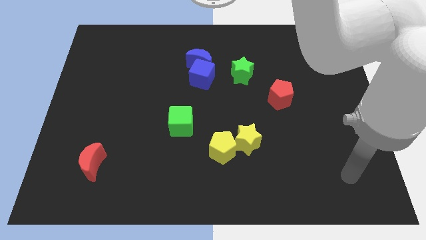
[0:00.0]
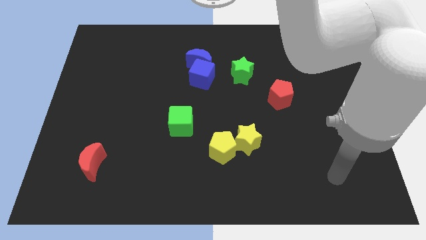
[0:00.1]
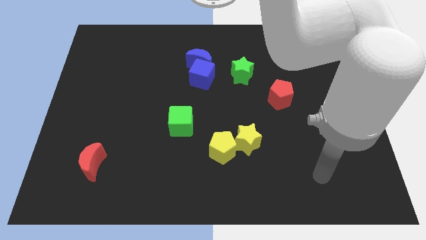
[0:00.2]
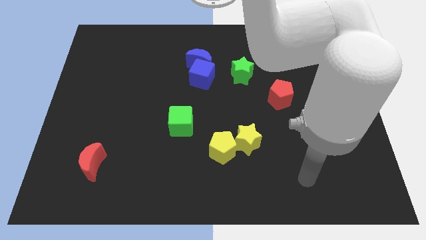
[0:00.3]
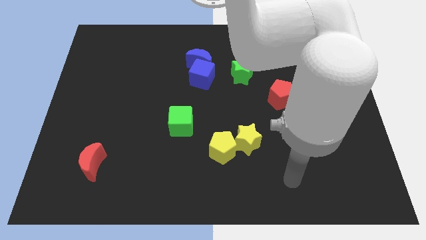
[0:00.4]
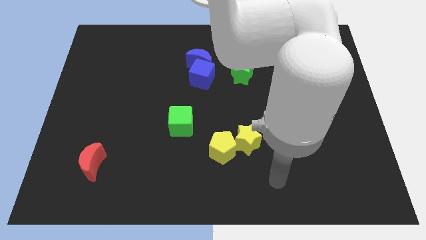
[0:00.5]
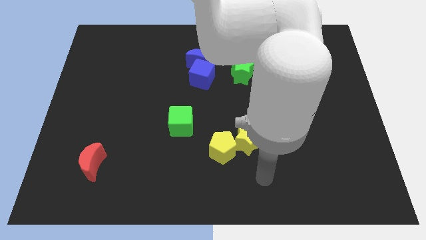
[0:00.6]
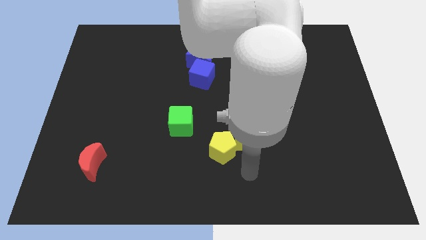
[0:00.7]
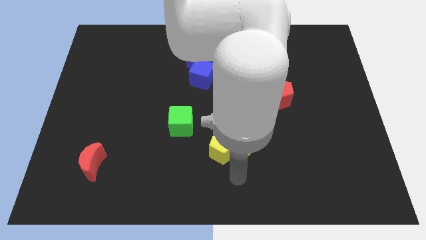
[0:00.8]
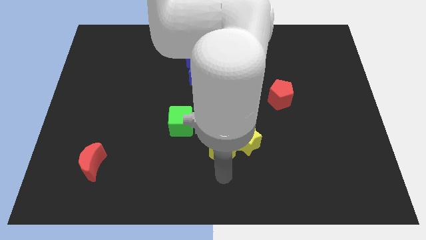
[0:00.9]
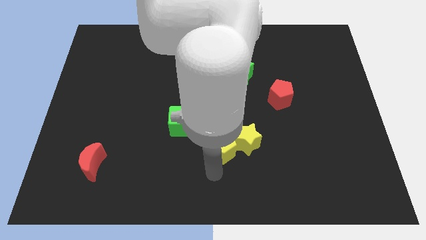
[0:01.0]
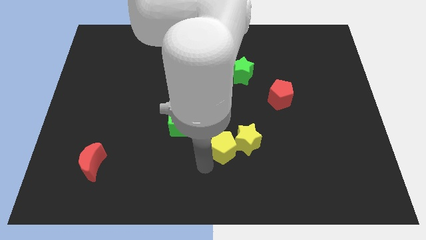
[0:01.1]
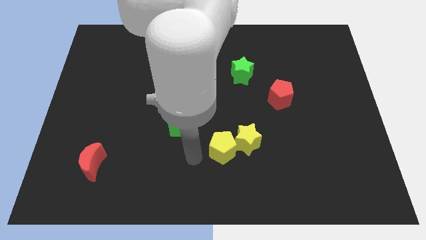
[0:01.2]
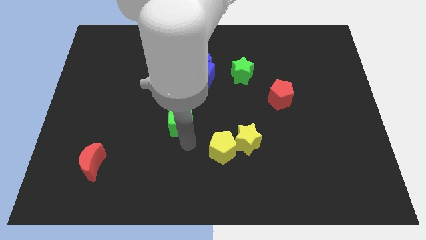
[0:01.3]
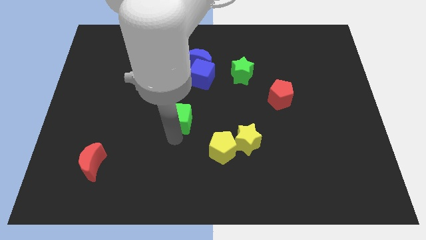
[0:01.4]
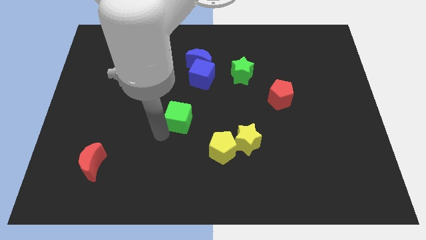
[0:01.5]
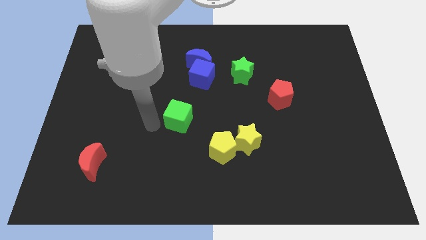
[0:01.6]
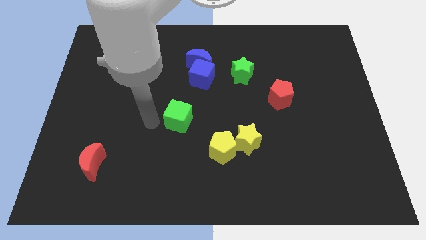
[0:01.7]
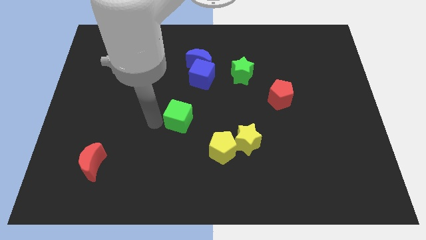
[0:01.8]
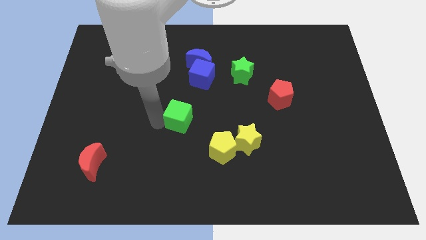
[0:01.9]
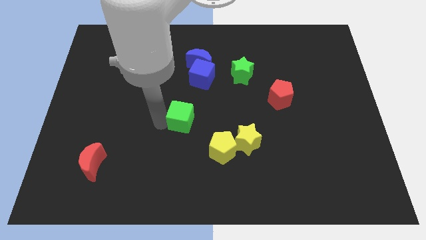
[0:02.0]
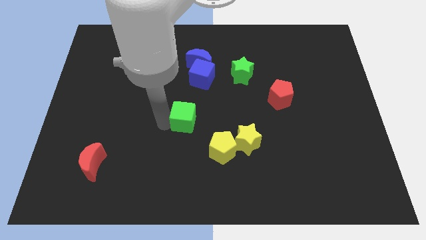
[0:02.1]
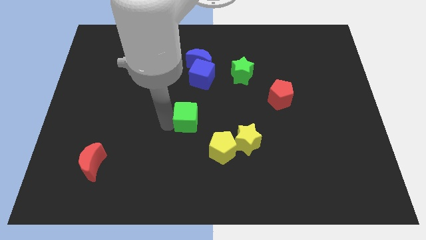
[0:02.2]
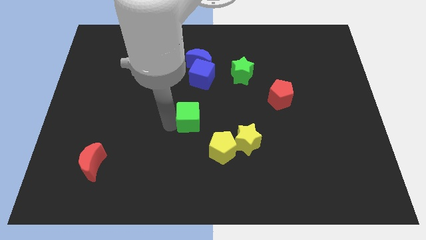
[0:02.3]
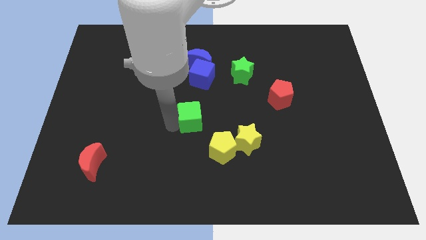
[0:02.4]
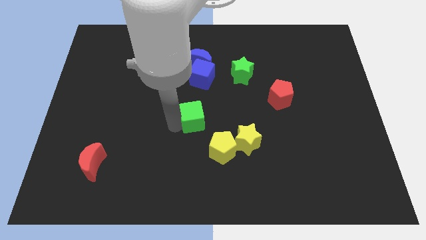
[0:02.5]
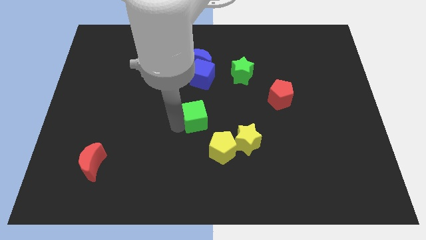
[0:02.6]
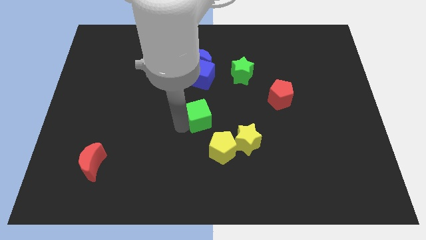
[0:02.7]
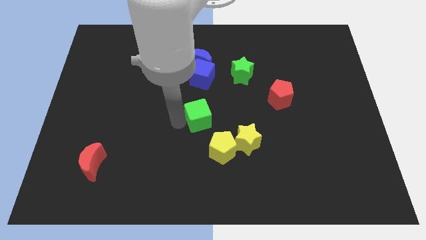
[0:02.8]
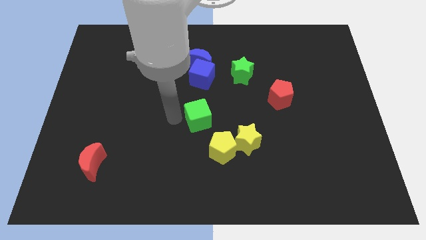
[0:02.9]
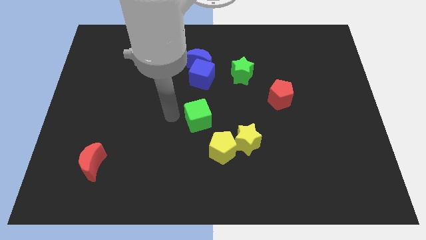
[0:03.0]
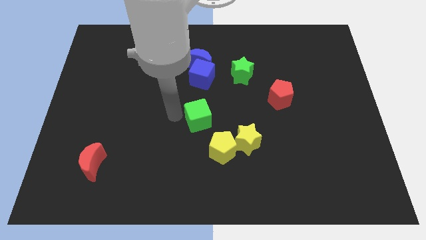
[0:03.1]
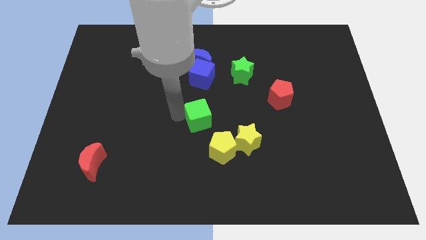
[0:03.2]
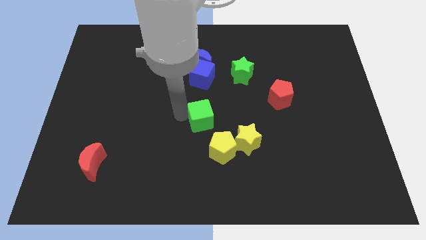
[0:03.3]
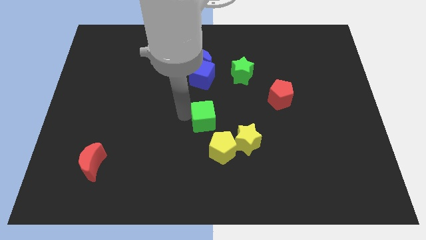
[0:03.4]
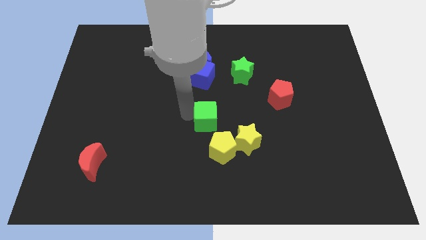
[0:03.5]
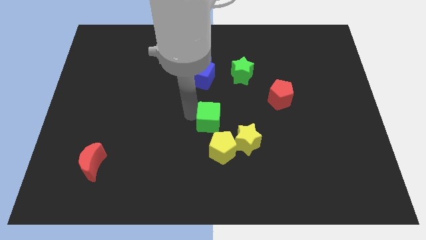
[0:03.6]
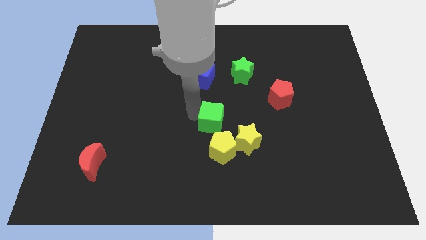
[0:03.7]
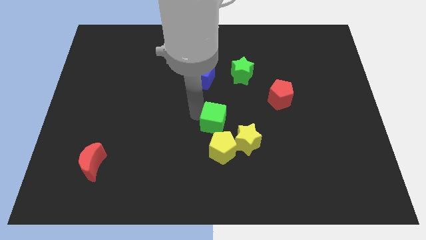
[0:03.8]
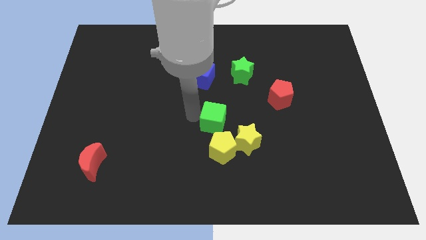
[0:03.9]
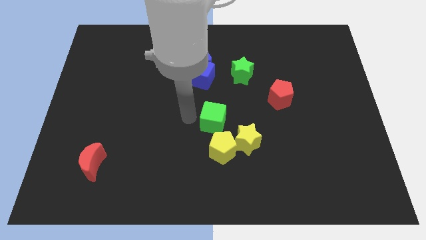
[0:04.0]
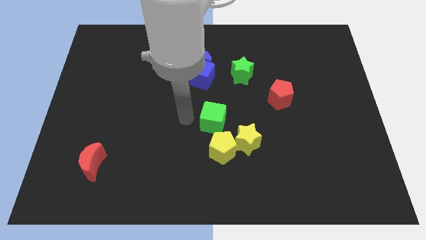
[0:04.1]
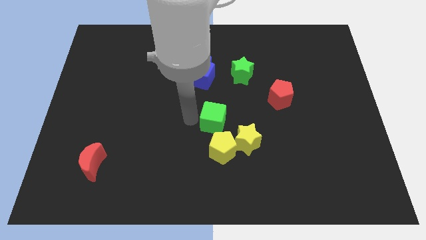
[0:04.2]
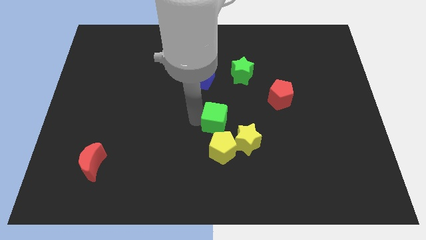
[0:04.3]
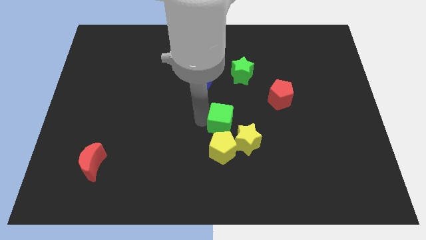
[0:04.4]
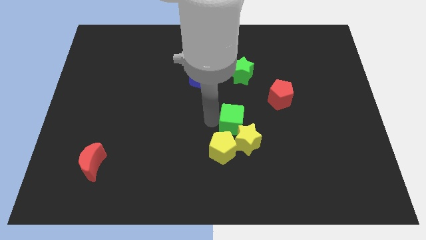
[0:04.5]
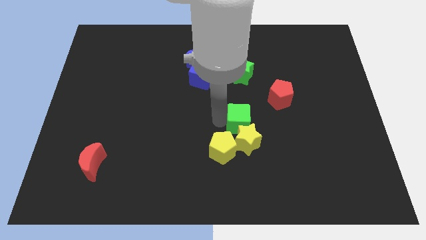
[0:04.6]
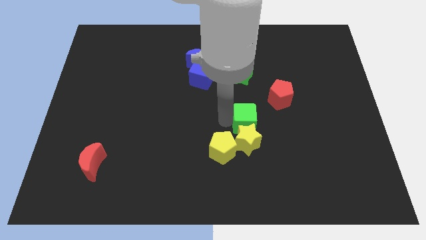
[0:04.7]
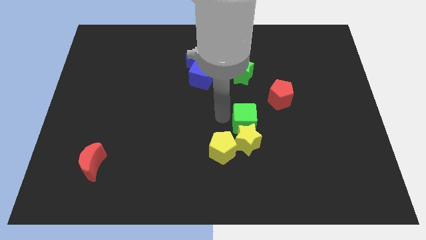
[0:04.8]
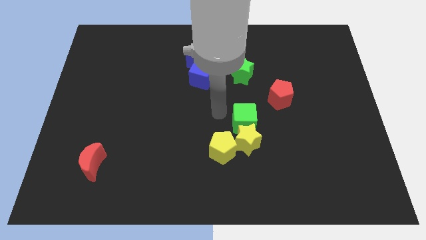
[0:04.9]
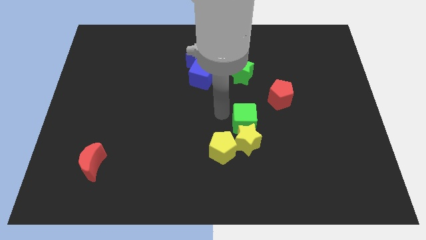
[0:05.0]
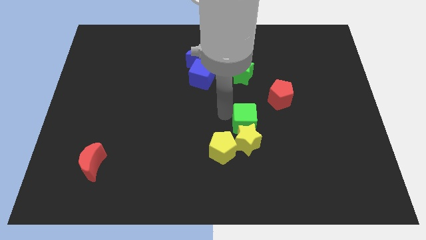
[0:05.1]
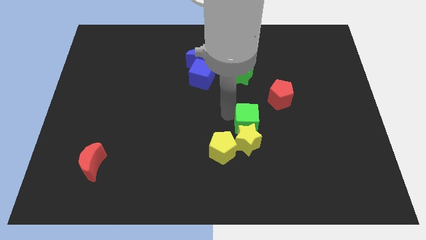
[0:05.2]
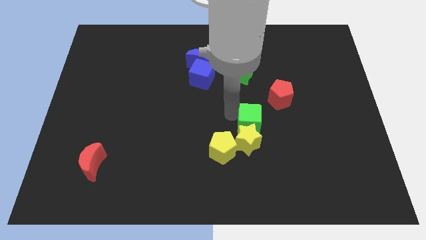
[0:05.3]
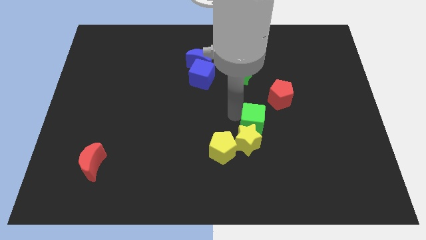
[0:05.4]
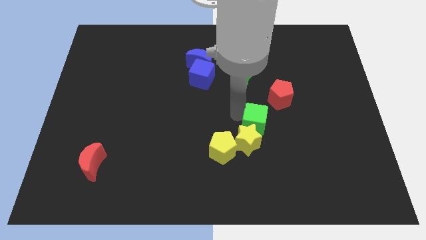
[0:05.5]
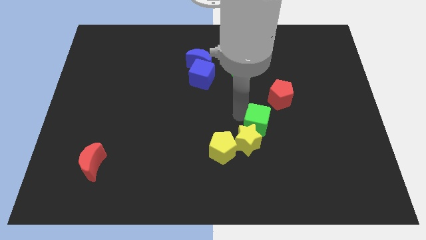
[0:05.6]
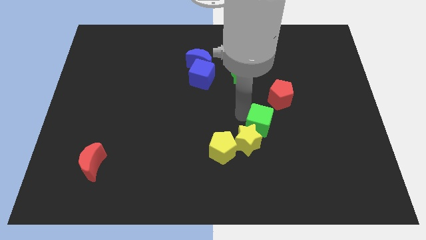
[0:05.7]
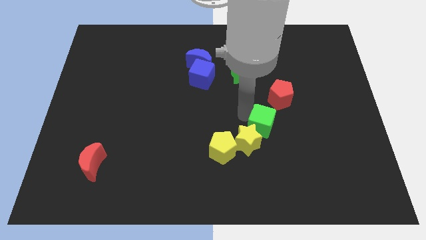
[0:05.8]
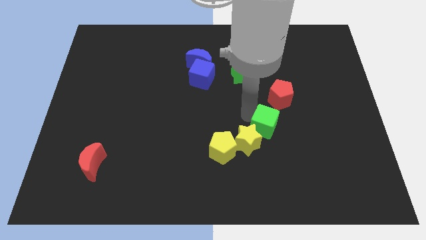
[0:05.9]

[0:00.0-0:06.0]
move the green cube to the bottom of the red pentagon

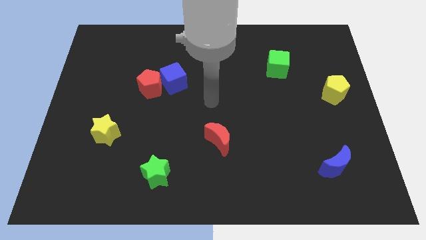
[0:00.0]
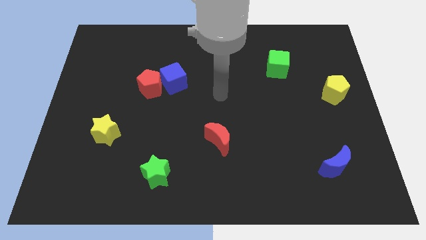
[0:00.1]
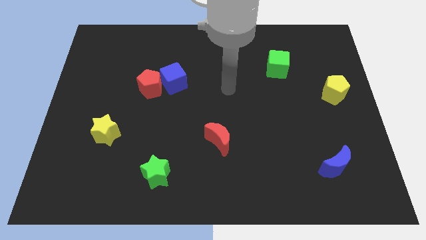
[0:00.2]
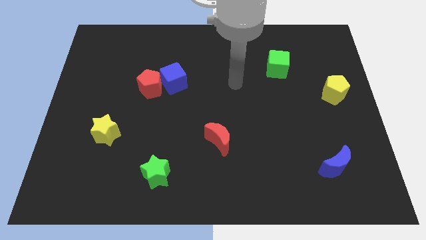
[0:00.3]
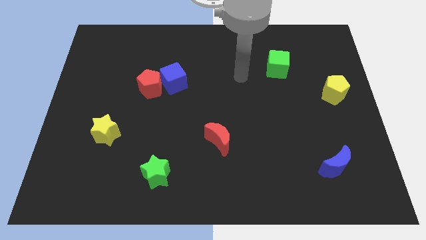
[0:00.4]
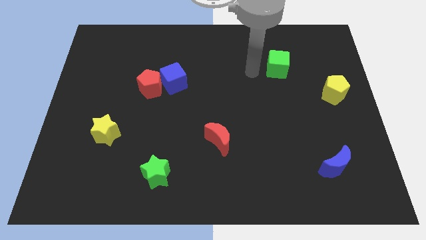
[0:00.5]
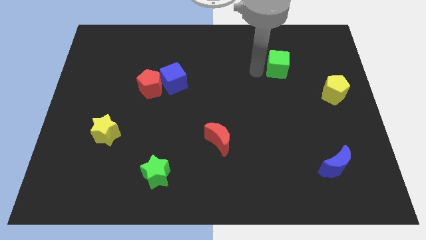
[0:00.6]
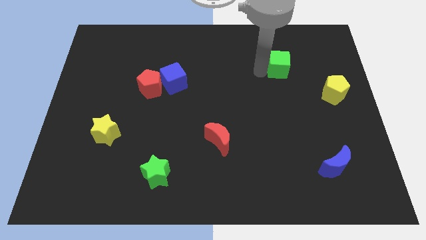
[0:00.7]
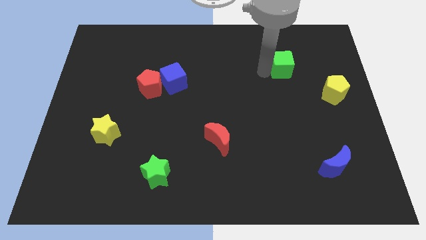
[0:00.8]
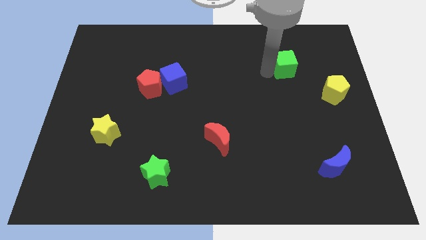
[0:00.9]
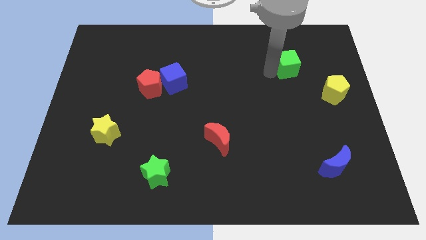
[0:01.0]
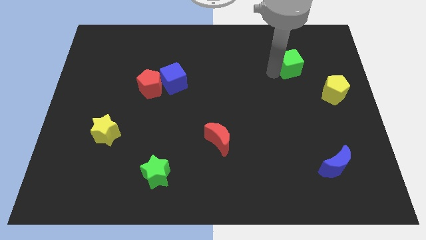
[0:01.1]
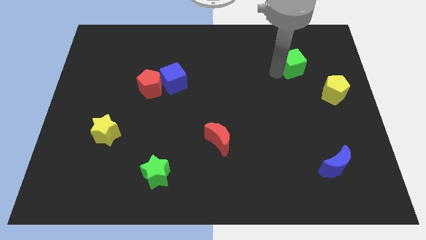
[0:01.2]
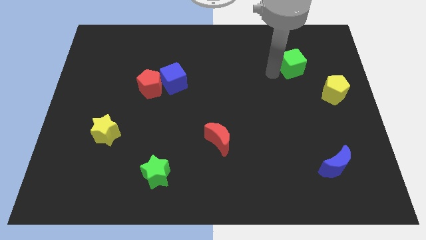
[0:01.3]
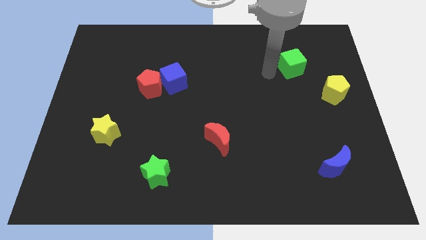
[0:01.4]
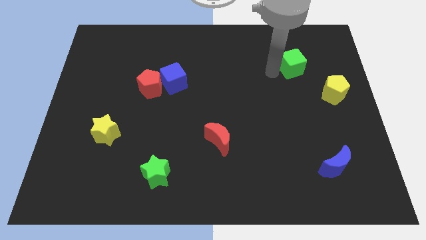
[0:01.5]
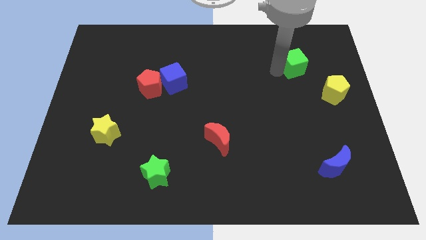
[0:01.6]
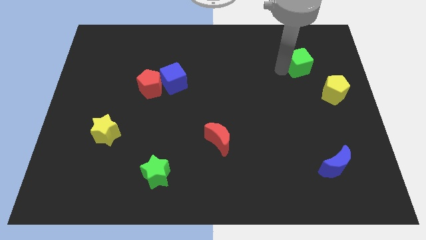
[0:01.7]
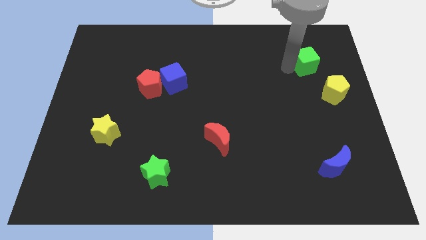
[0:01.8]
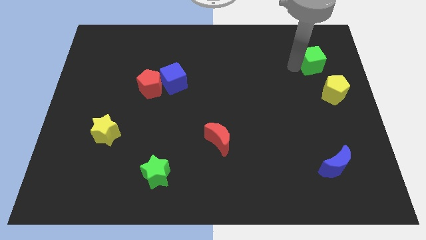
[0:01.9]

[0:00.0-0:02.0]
move the green cube to the top of the yellow pentagon
